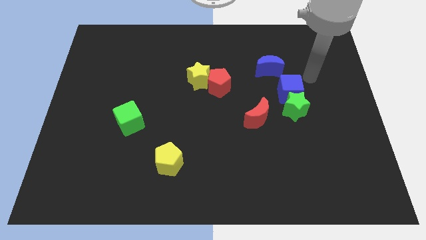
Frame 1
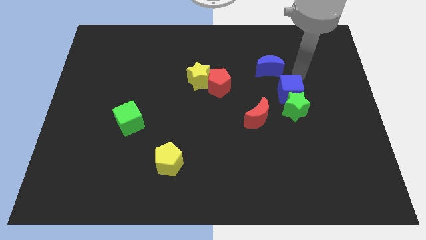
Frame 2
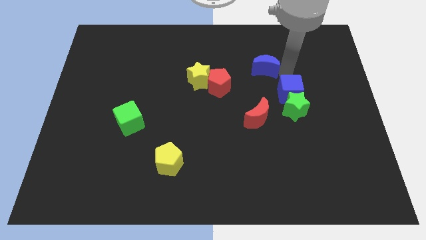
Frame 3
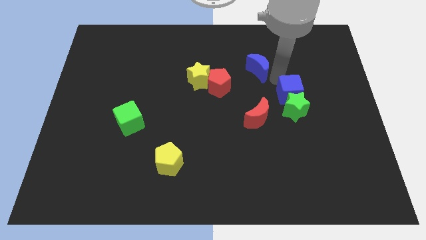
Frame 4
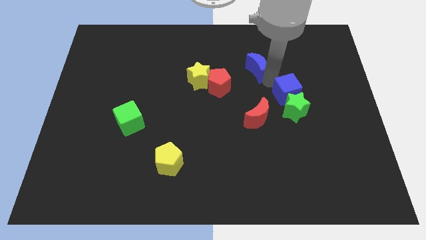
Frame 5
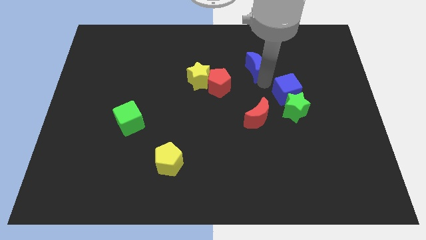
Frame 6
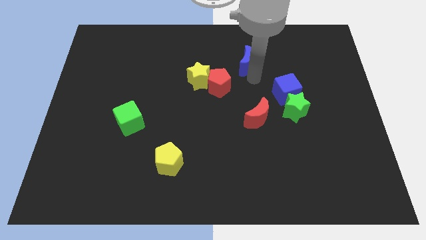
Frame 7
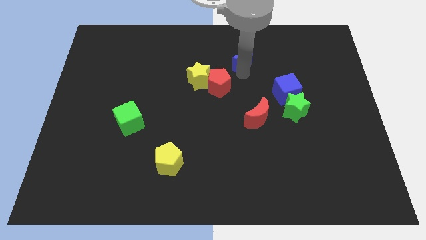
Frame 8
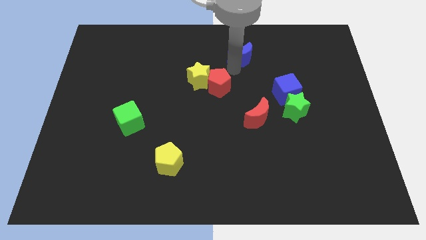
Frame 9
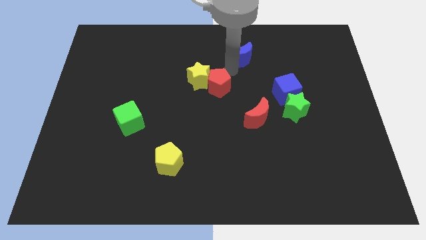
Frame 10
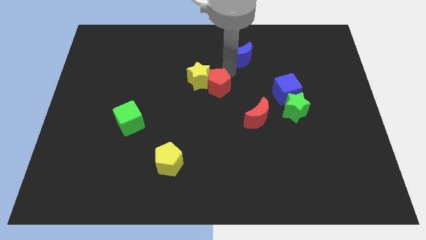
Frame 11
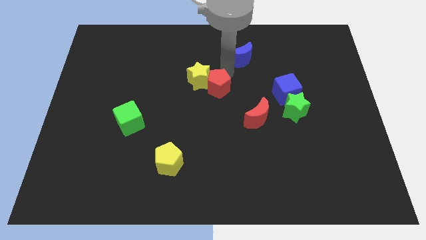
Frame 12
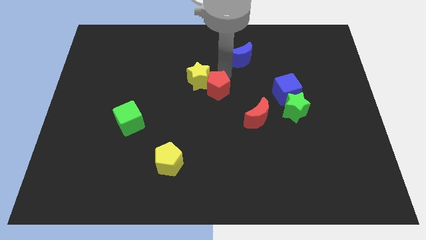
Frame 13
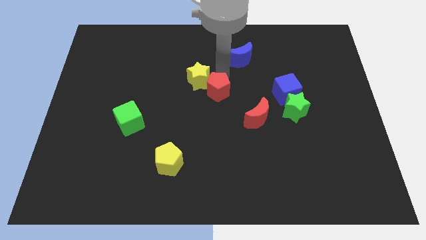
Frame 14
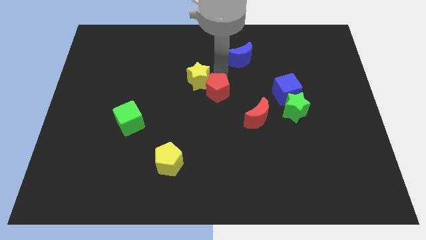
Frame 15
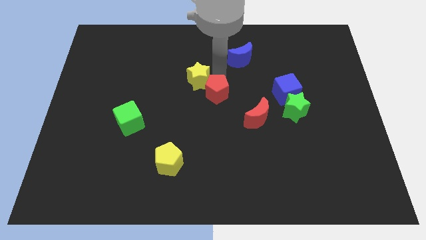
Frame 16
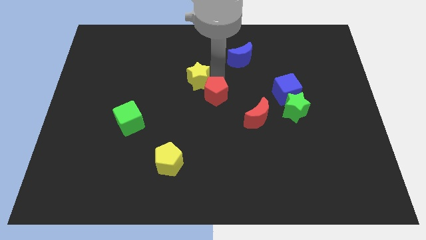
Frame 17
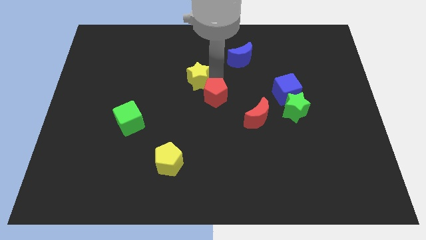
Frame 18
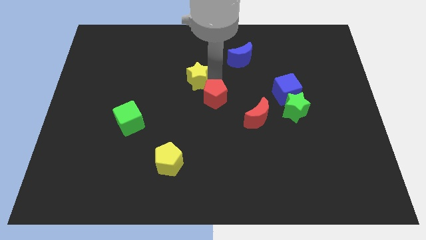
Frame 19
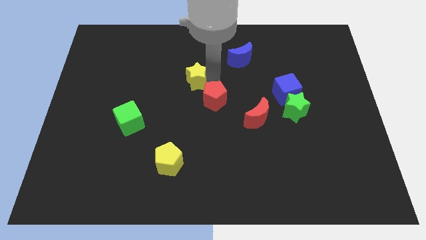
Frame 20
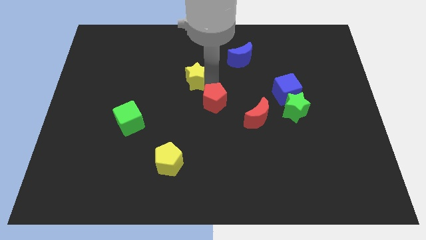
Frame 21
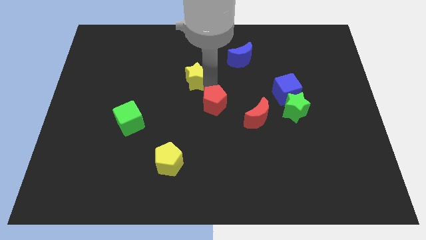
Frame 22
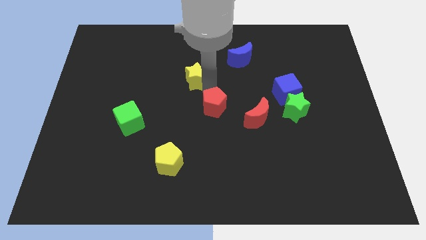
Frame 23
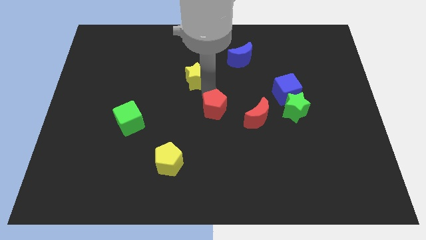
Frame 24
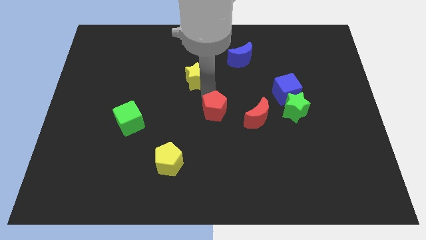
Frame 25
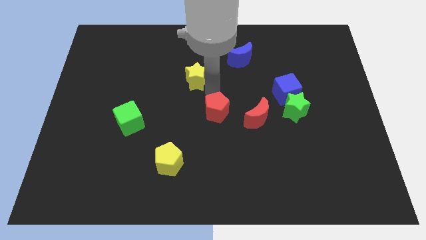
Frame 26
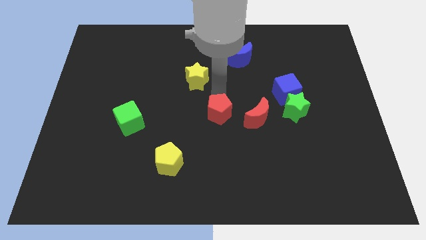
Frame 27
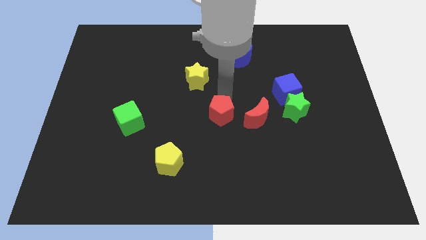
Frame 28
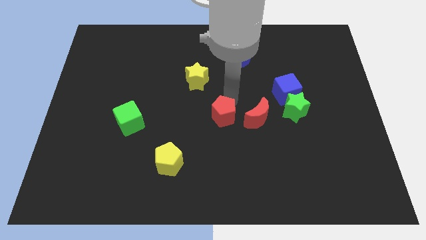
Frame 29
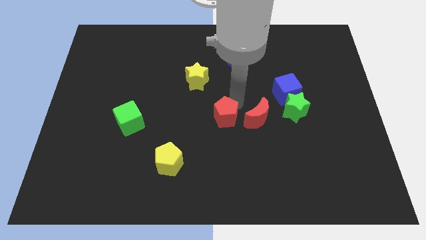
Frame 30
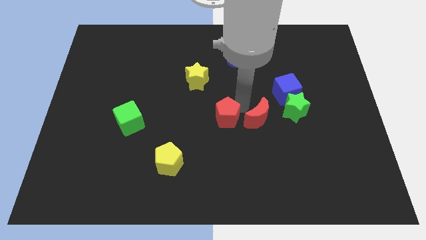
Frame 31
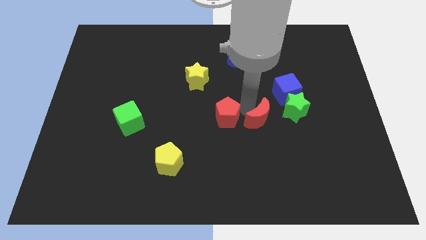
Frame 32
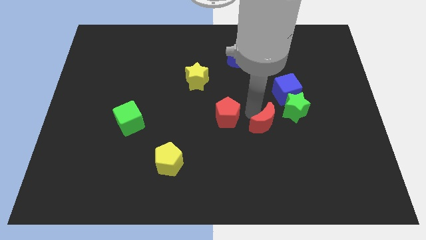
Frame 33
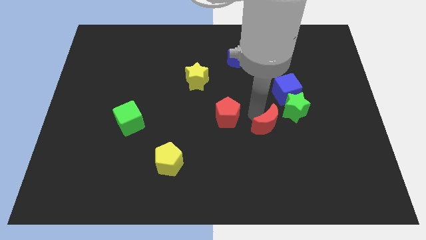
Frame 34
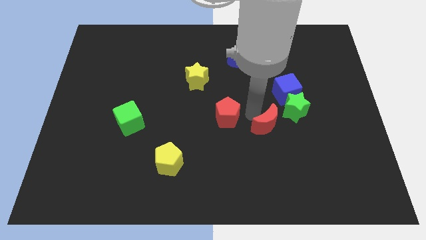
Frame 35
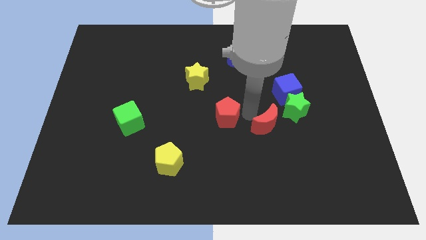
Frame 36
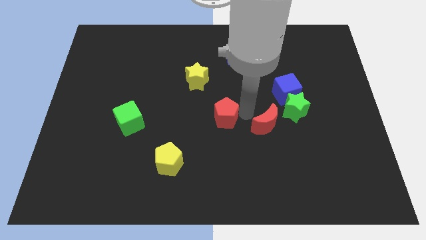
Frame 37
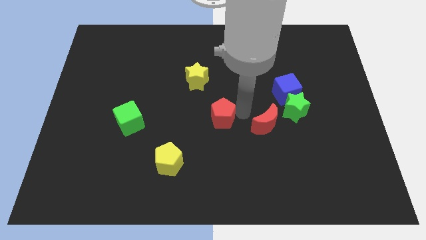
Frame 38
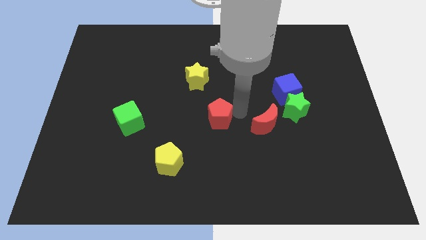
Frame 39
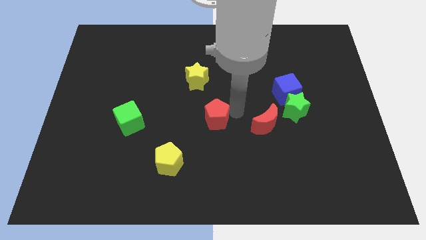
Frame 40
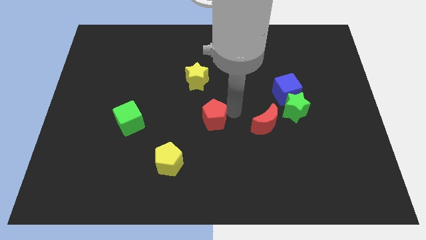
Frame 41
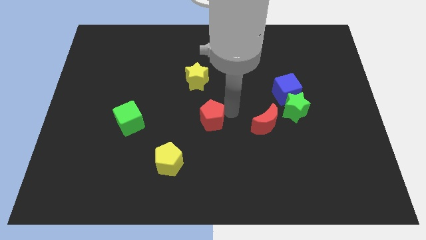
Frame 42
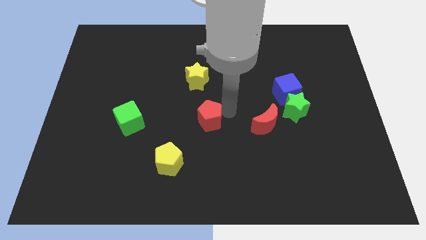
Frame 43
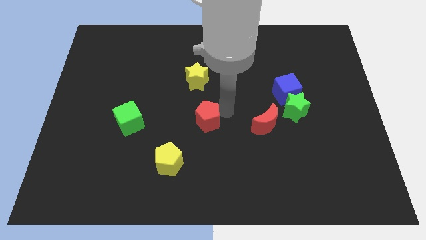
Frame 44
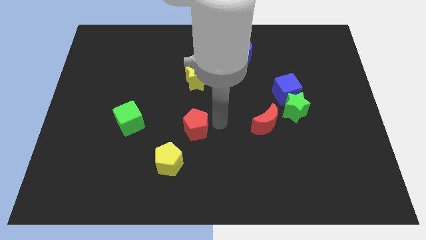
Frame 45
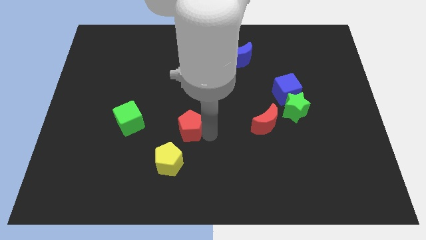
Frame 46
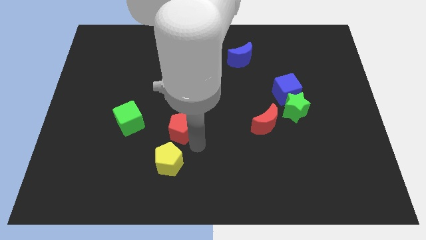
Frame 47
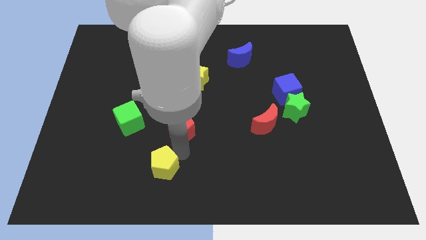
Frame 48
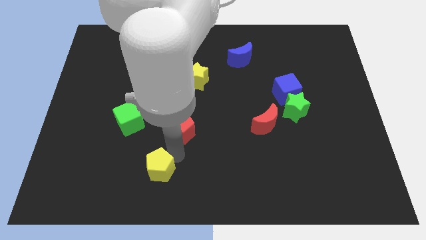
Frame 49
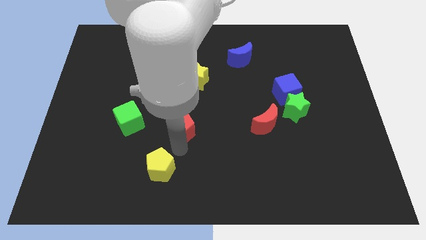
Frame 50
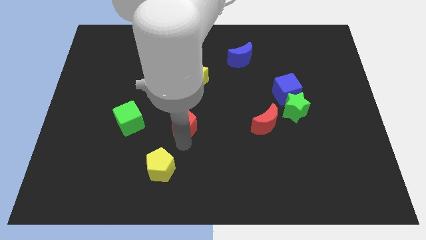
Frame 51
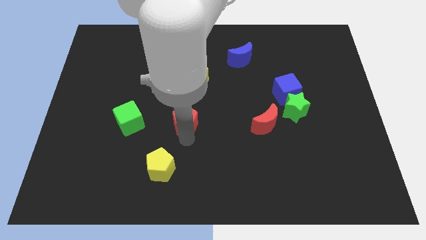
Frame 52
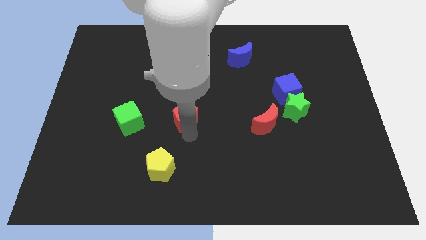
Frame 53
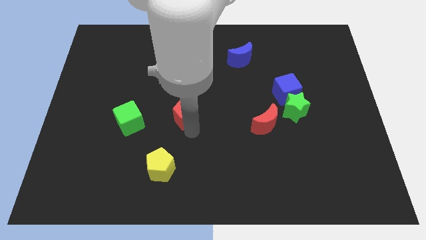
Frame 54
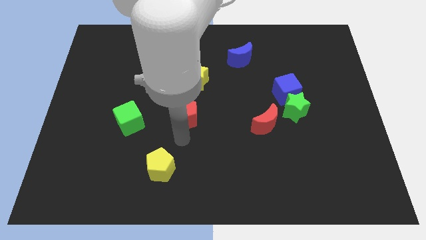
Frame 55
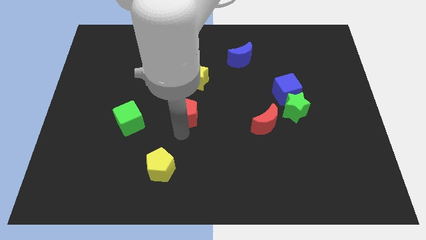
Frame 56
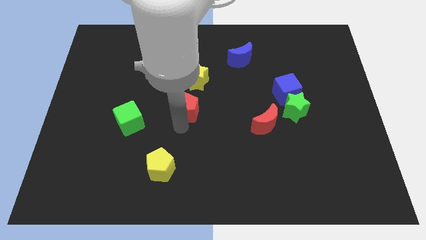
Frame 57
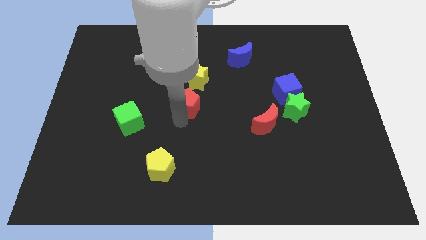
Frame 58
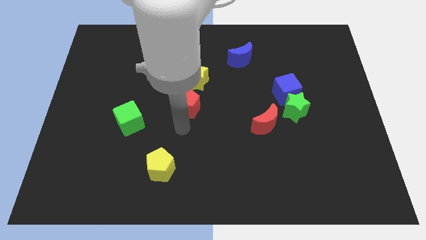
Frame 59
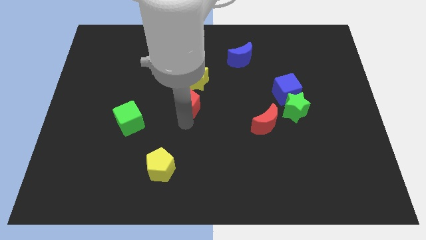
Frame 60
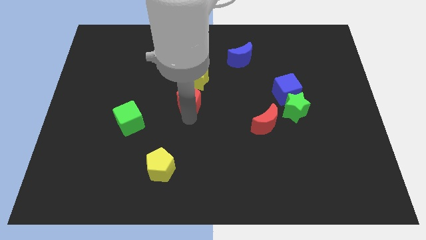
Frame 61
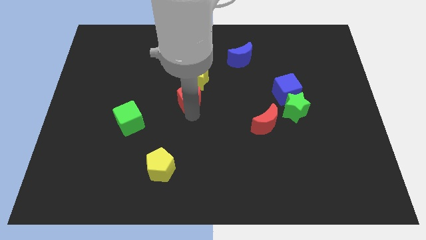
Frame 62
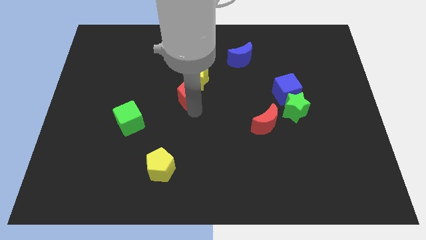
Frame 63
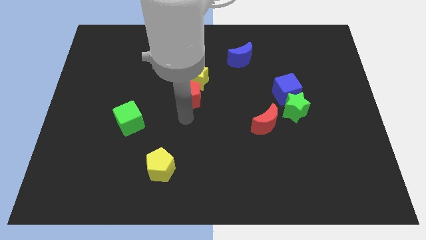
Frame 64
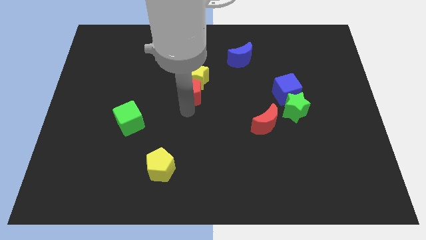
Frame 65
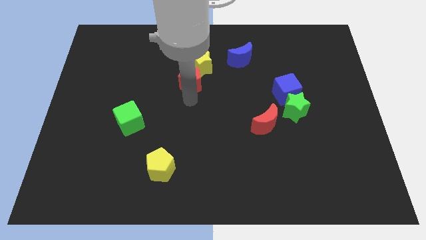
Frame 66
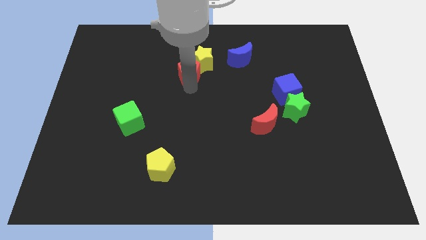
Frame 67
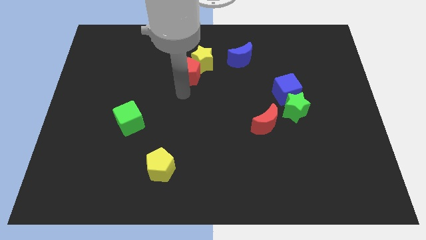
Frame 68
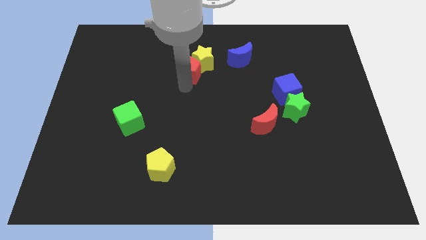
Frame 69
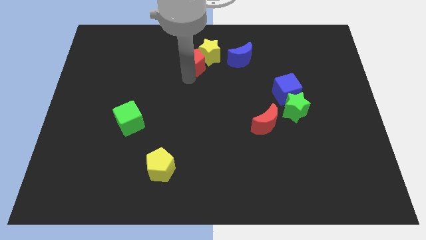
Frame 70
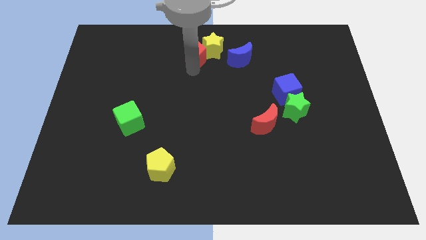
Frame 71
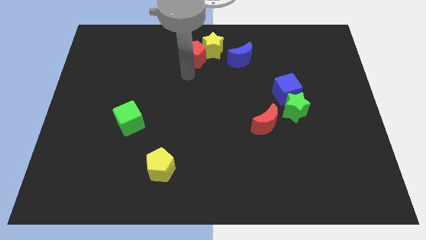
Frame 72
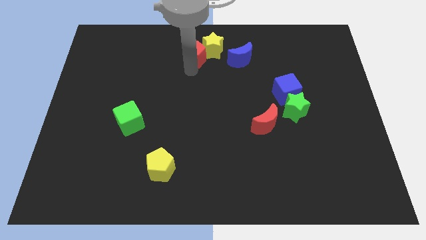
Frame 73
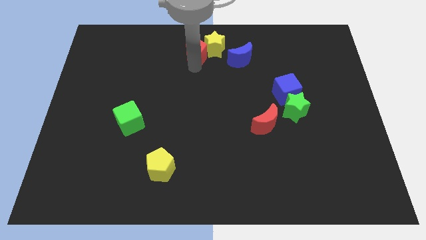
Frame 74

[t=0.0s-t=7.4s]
push the red pentagon to the top side

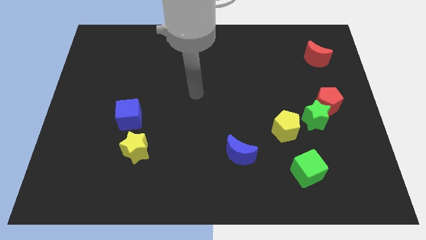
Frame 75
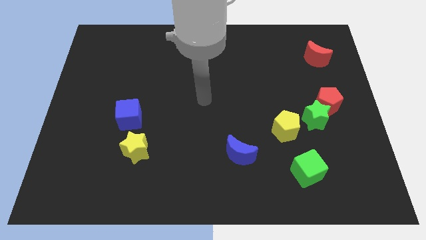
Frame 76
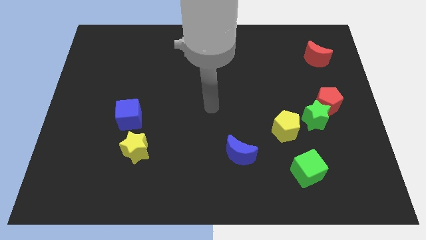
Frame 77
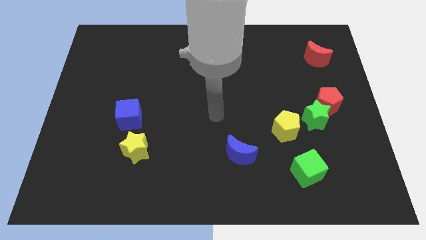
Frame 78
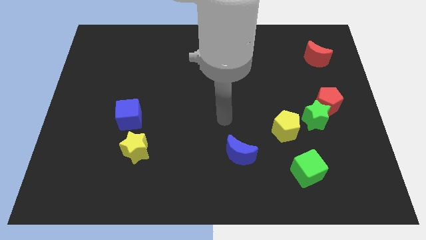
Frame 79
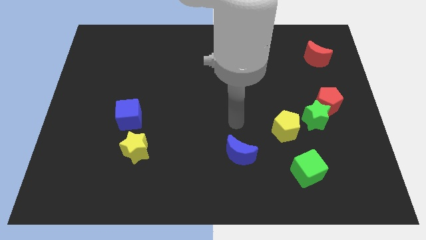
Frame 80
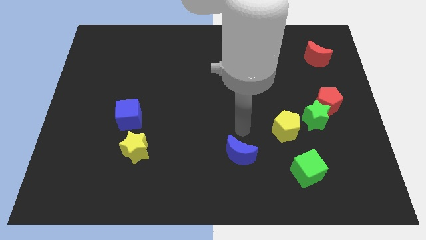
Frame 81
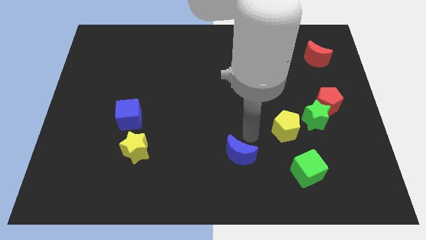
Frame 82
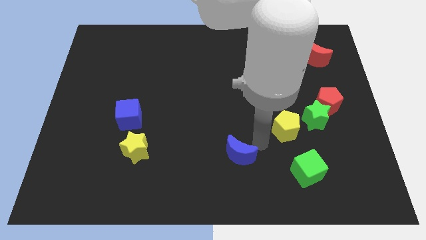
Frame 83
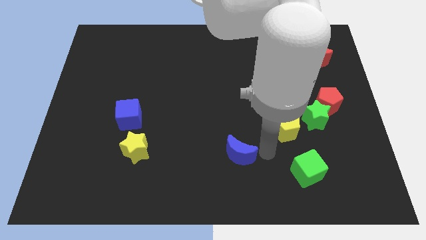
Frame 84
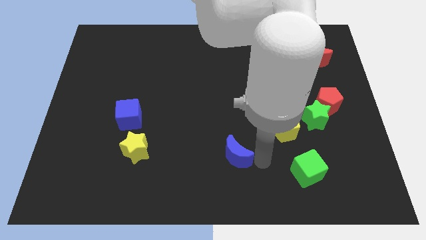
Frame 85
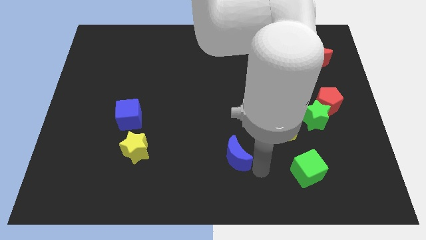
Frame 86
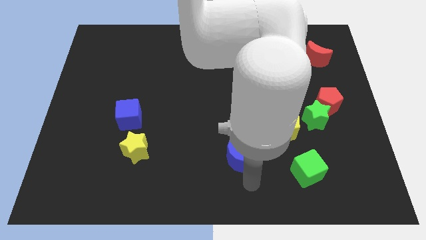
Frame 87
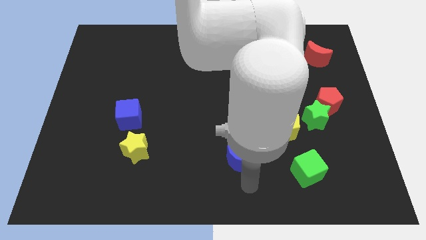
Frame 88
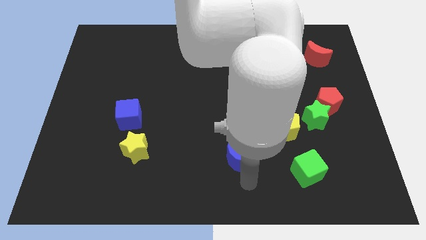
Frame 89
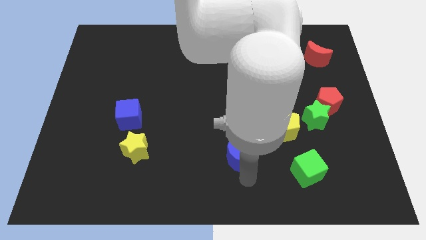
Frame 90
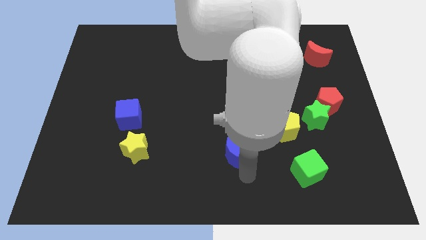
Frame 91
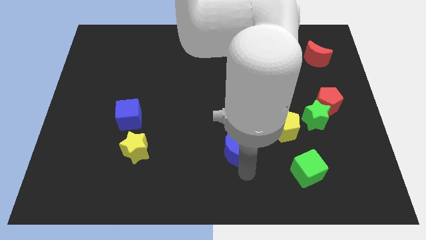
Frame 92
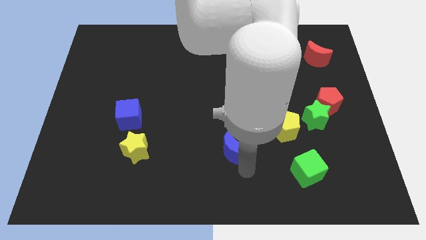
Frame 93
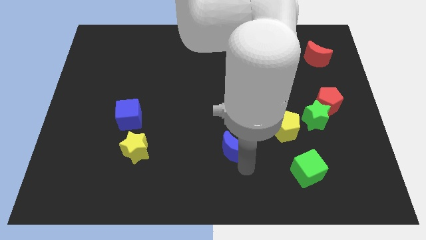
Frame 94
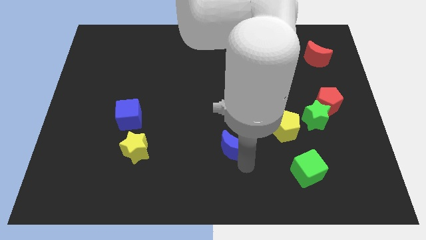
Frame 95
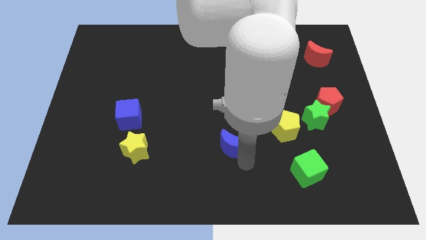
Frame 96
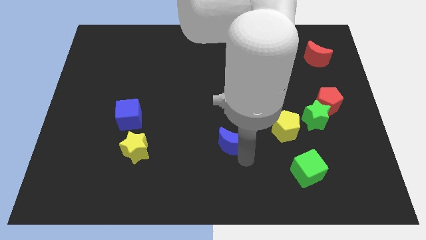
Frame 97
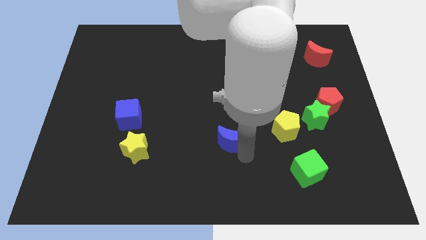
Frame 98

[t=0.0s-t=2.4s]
move the blue moon to the center
